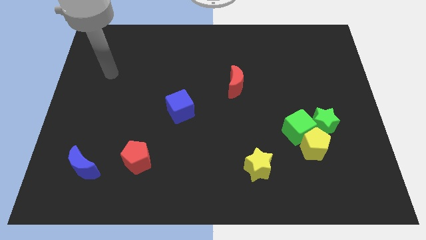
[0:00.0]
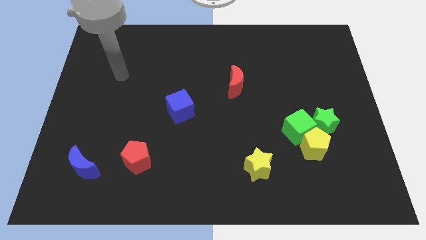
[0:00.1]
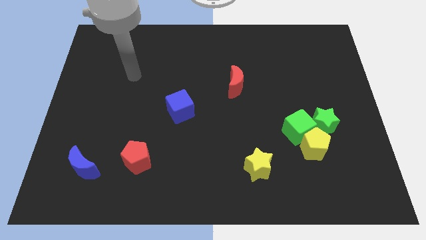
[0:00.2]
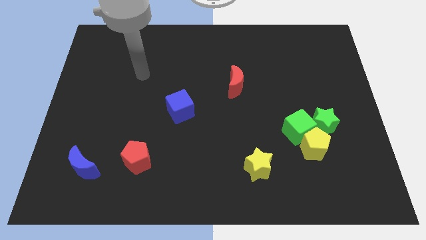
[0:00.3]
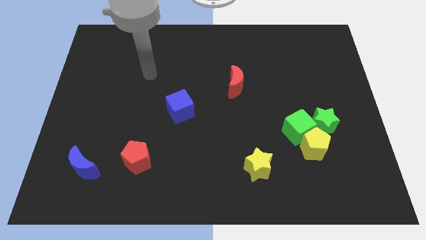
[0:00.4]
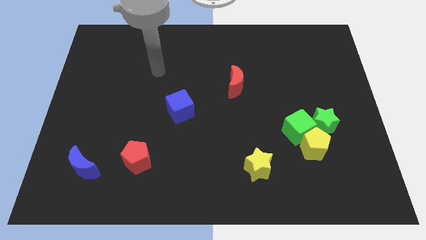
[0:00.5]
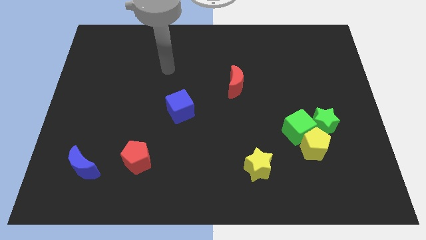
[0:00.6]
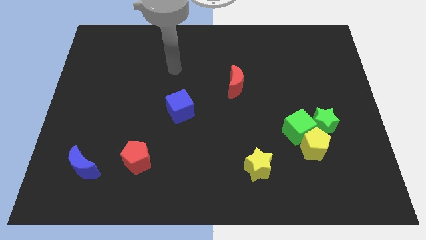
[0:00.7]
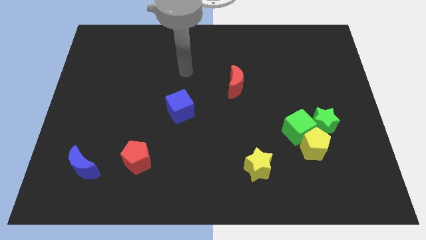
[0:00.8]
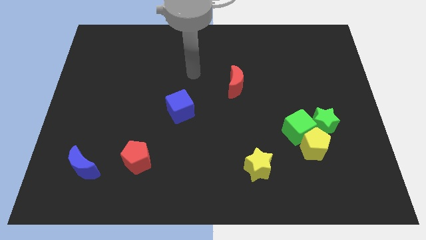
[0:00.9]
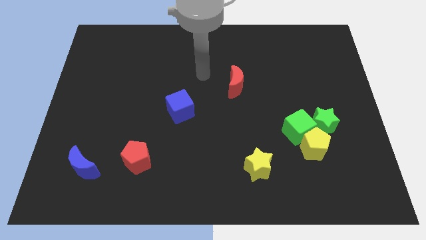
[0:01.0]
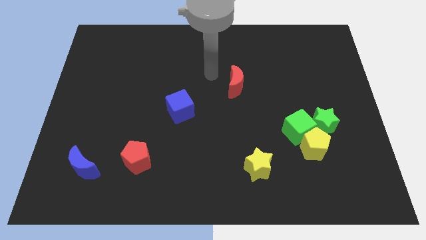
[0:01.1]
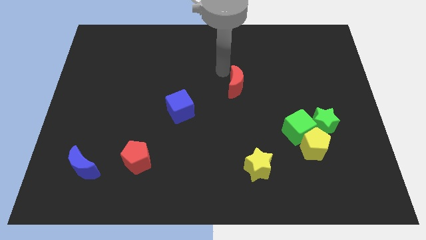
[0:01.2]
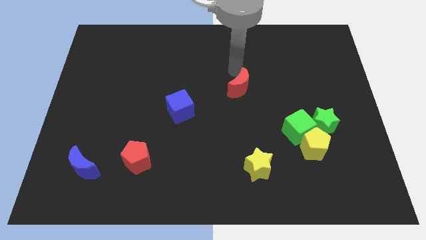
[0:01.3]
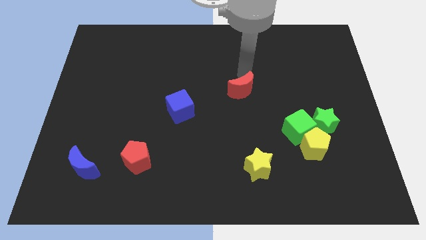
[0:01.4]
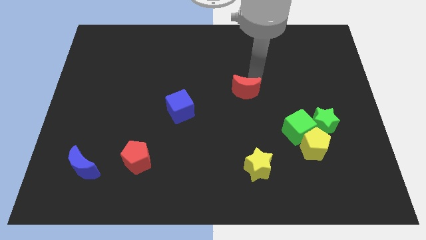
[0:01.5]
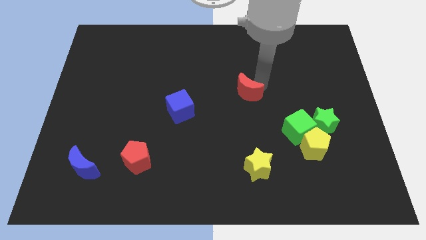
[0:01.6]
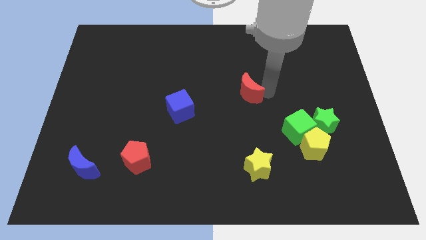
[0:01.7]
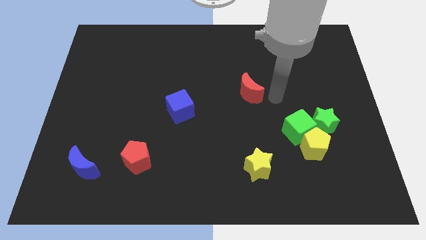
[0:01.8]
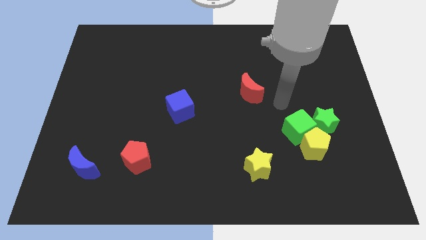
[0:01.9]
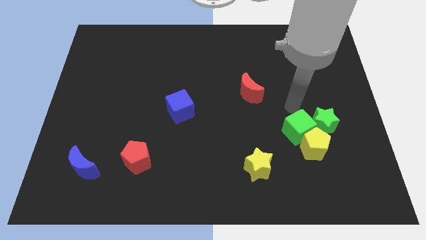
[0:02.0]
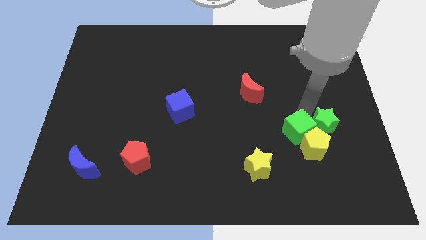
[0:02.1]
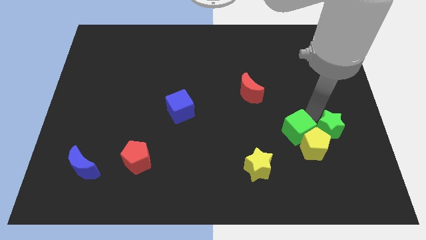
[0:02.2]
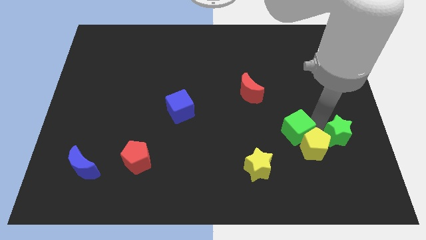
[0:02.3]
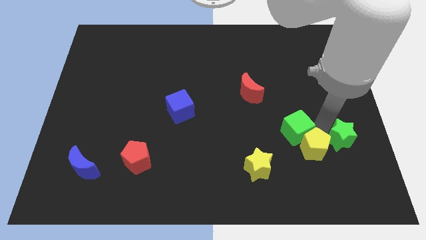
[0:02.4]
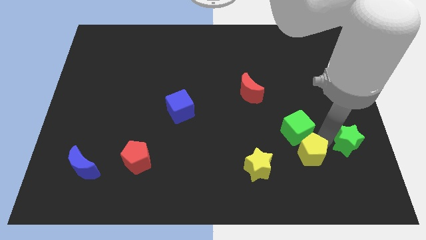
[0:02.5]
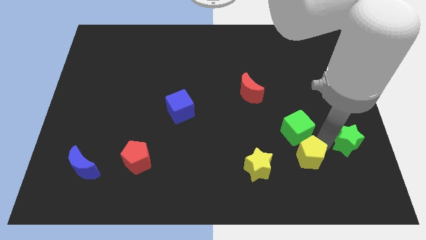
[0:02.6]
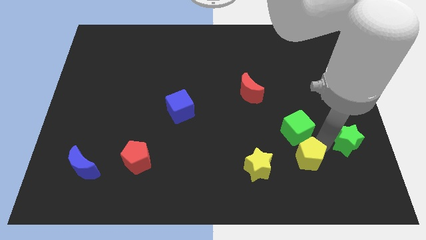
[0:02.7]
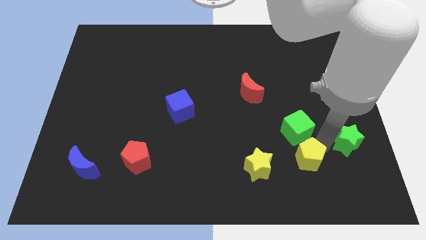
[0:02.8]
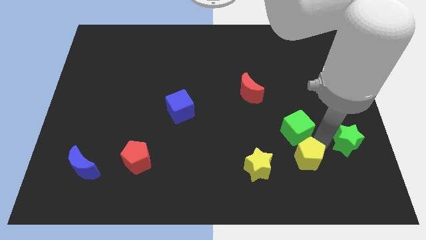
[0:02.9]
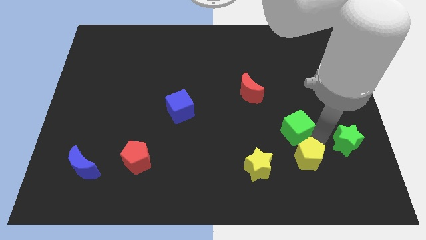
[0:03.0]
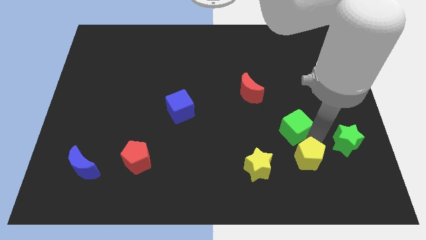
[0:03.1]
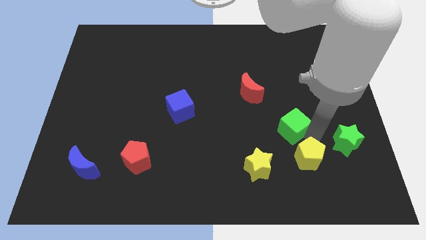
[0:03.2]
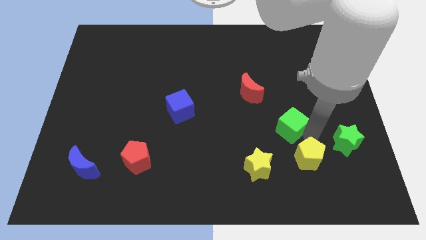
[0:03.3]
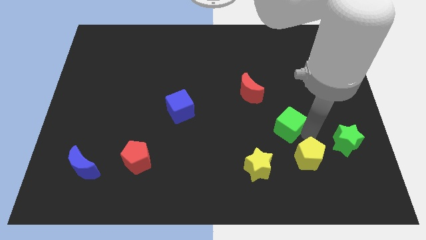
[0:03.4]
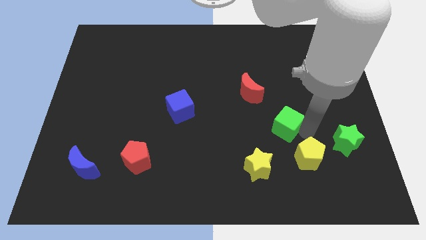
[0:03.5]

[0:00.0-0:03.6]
separate the green cube from the yellow pentagon and green star

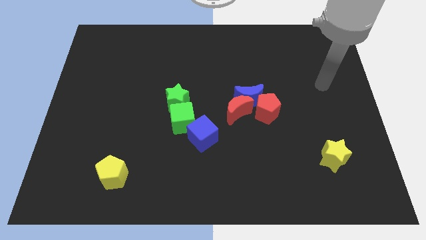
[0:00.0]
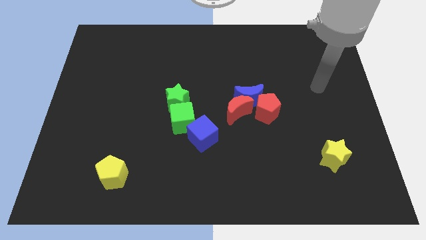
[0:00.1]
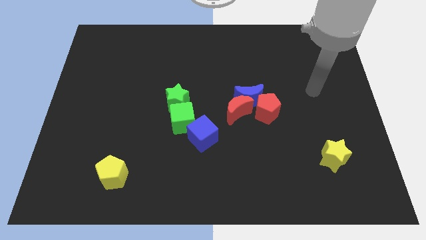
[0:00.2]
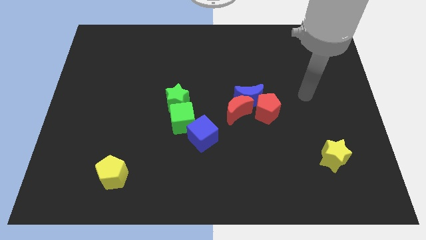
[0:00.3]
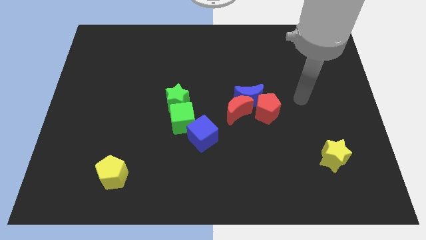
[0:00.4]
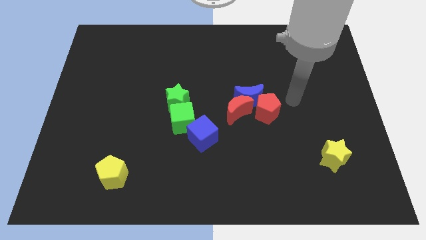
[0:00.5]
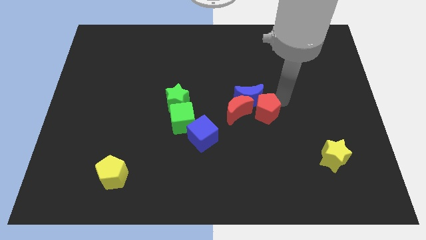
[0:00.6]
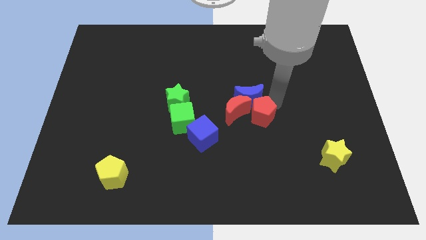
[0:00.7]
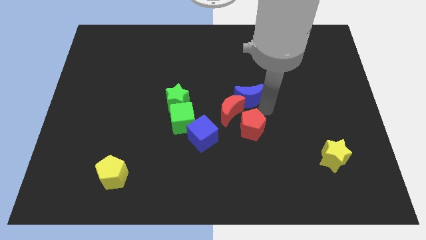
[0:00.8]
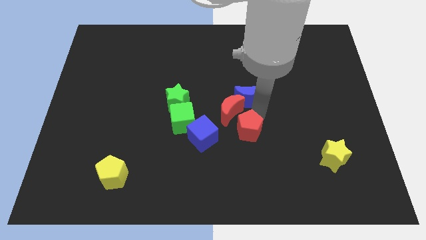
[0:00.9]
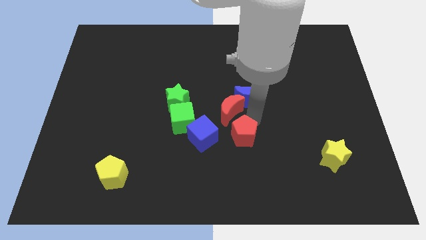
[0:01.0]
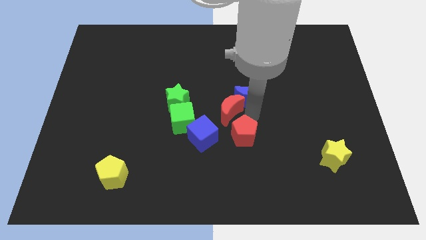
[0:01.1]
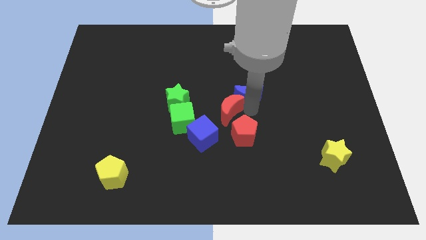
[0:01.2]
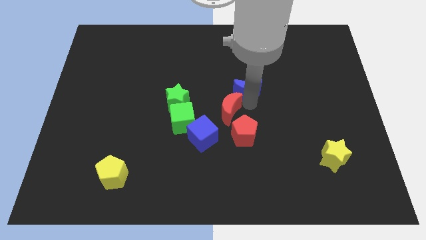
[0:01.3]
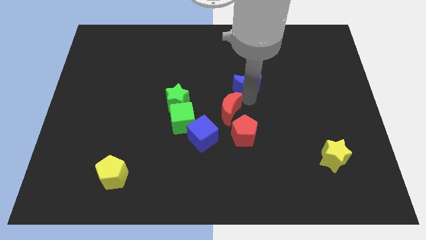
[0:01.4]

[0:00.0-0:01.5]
move the blue moon away from the red moon and red pentagon

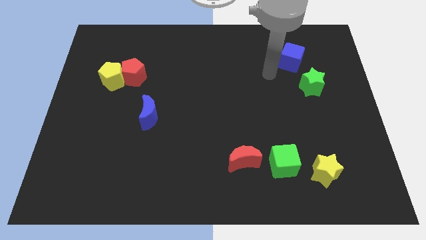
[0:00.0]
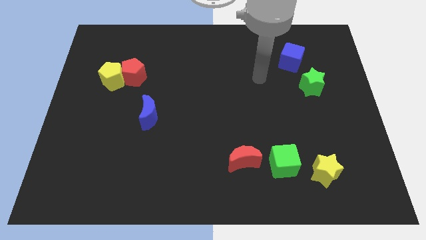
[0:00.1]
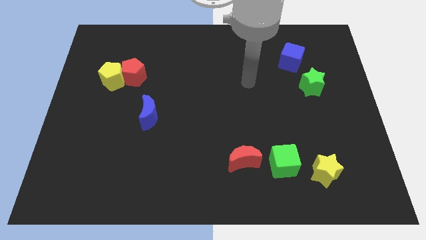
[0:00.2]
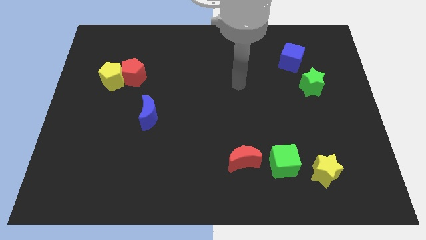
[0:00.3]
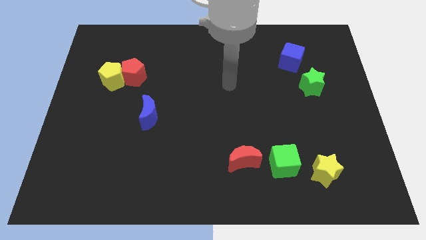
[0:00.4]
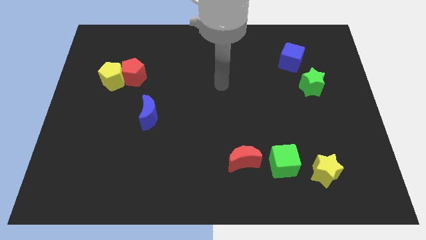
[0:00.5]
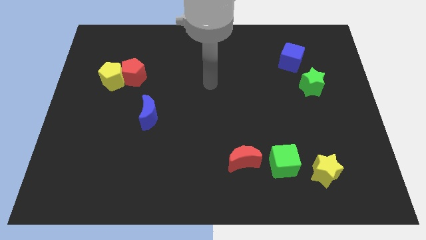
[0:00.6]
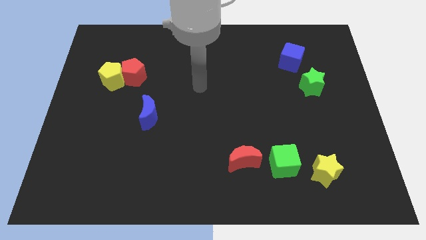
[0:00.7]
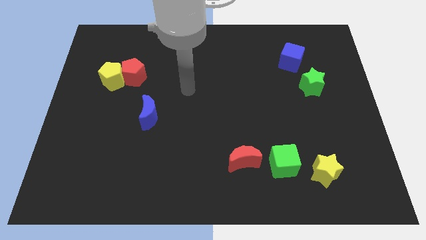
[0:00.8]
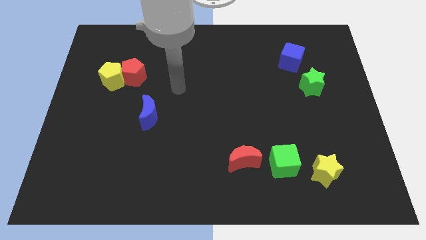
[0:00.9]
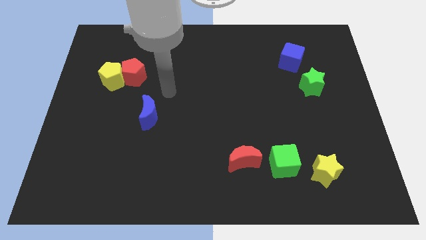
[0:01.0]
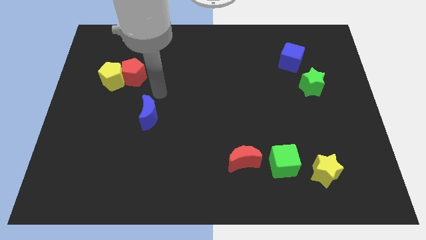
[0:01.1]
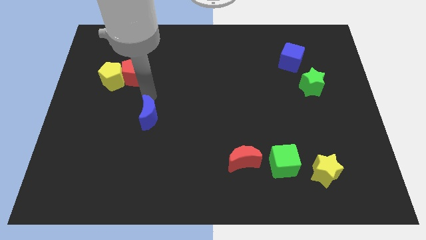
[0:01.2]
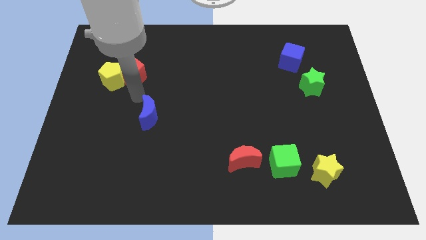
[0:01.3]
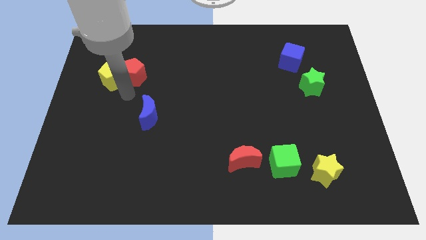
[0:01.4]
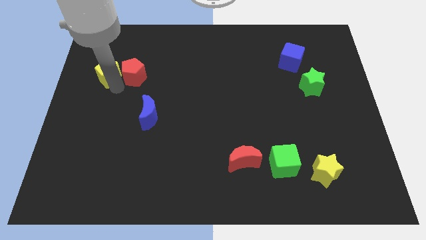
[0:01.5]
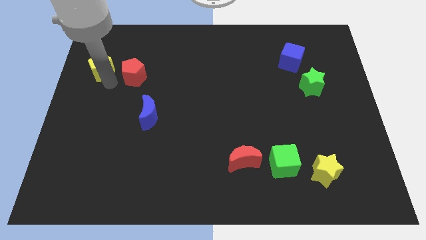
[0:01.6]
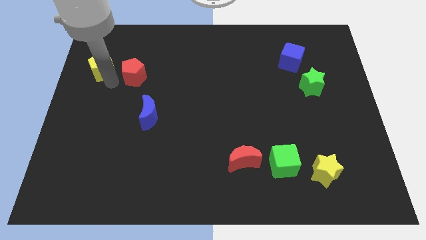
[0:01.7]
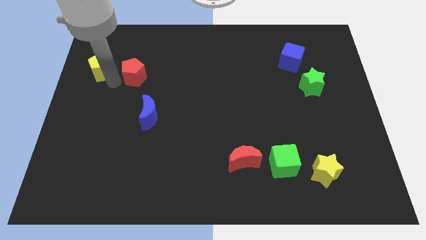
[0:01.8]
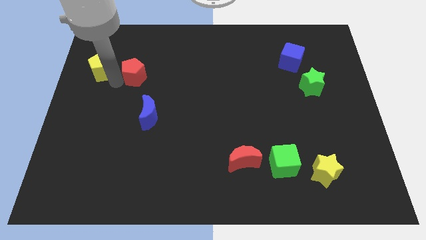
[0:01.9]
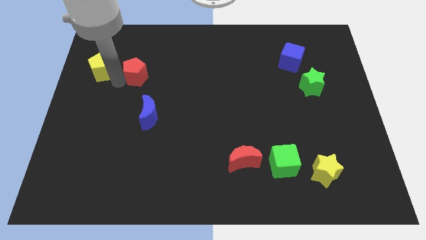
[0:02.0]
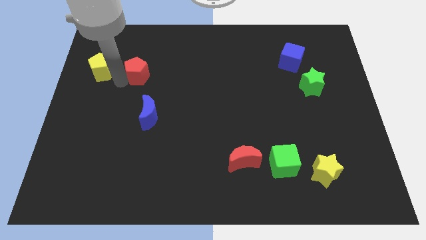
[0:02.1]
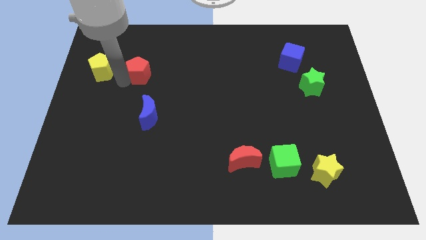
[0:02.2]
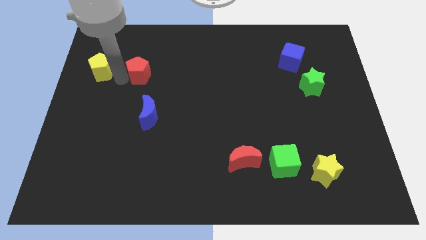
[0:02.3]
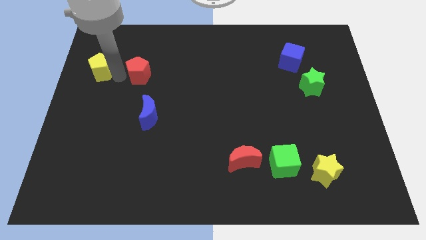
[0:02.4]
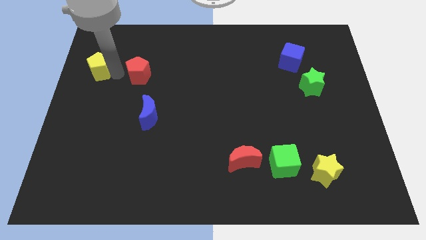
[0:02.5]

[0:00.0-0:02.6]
separate the red pentagon from the yellow pentagon

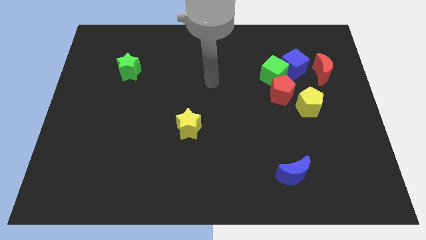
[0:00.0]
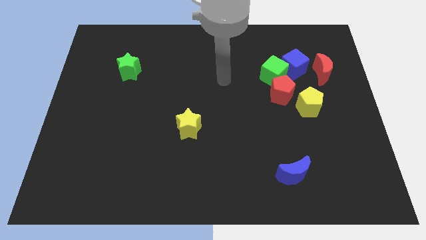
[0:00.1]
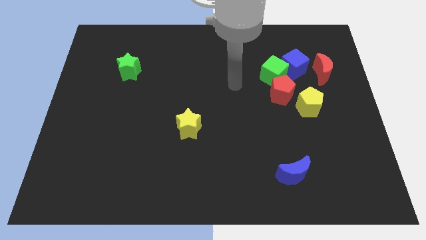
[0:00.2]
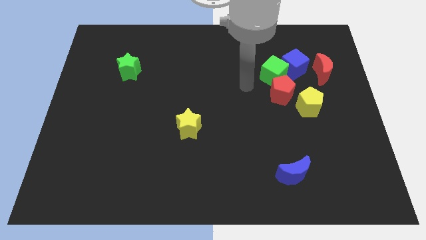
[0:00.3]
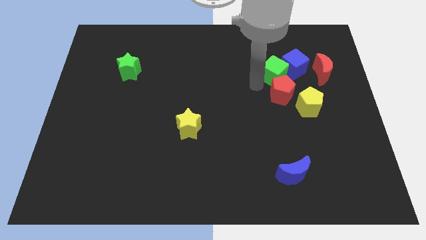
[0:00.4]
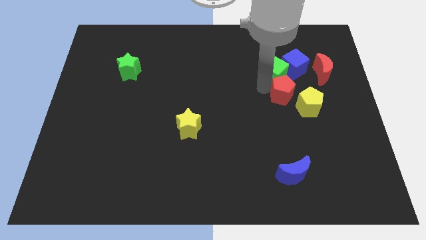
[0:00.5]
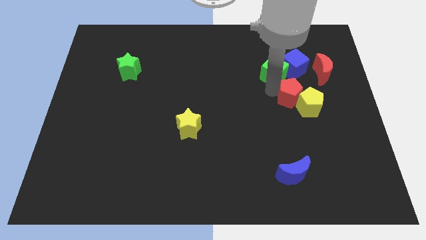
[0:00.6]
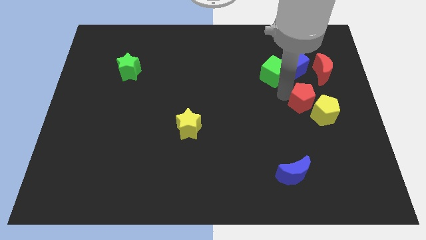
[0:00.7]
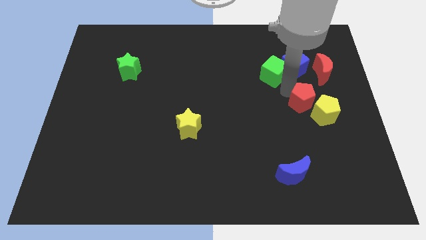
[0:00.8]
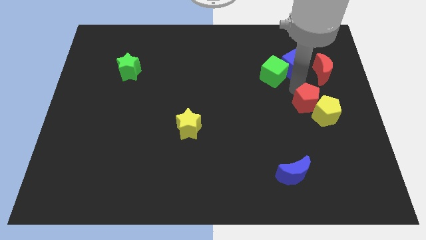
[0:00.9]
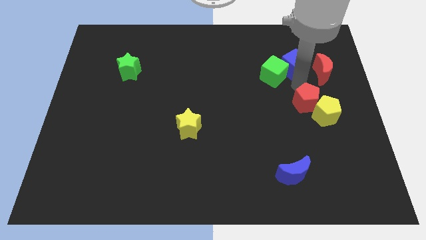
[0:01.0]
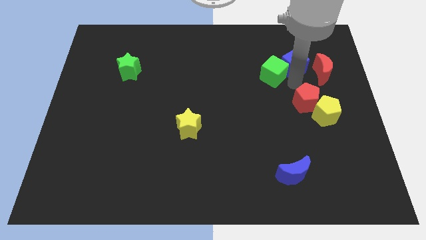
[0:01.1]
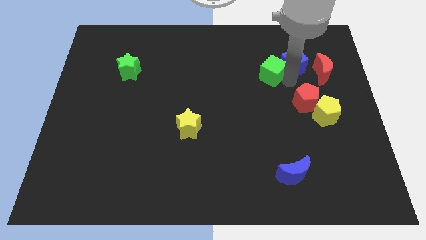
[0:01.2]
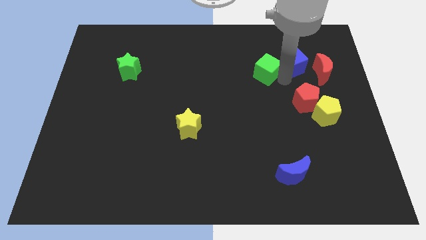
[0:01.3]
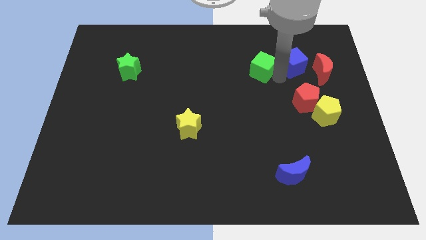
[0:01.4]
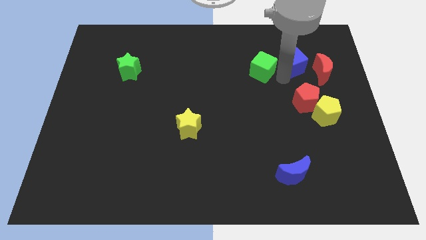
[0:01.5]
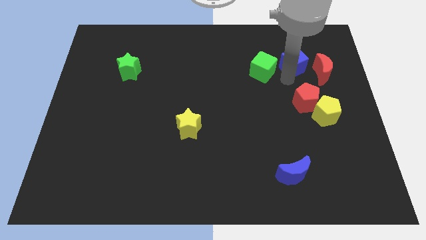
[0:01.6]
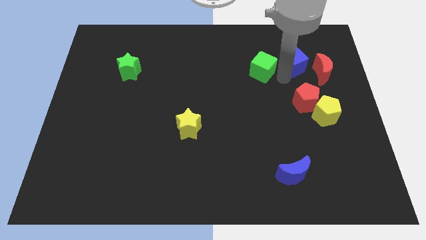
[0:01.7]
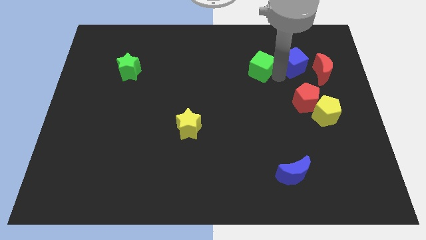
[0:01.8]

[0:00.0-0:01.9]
pull the green cube apart from the blue cube and red pentagon
